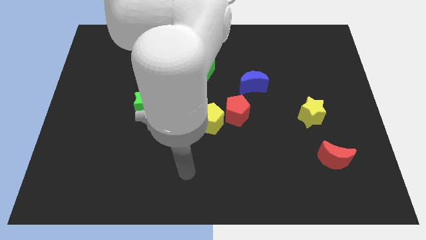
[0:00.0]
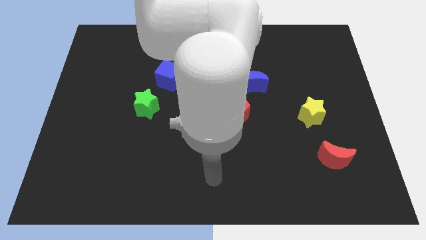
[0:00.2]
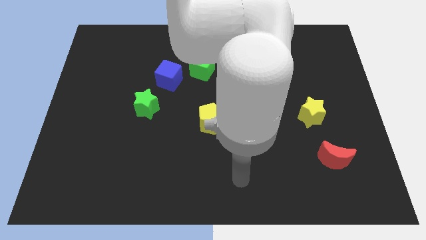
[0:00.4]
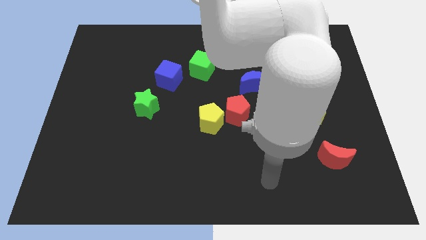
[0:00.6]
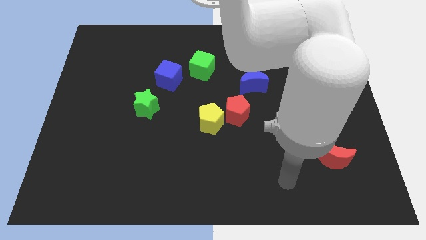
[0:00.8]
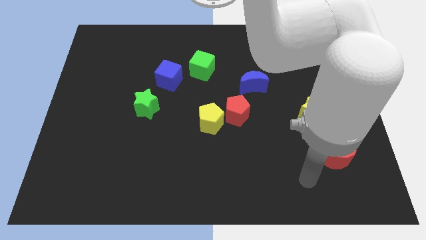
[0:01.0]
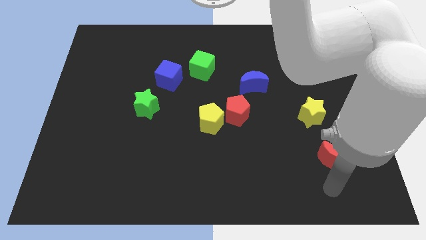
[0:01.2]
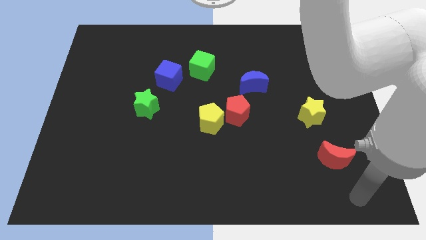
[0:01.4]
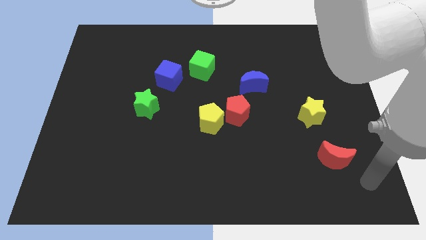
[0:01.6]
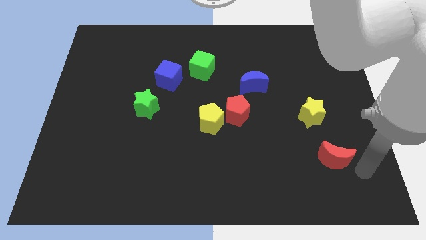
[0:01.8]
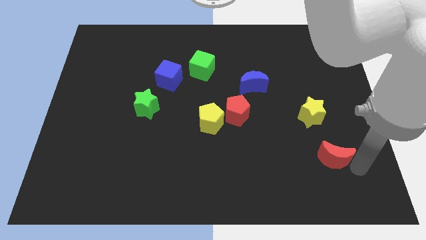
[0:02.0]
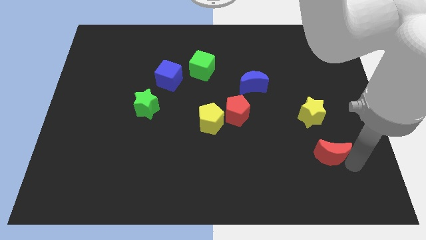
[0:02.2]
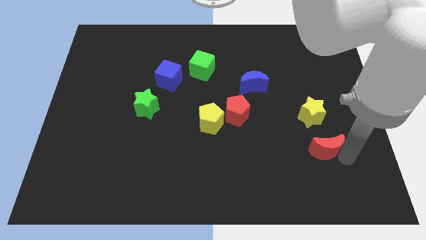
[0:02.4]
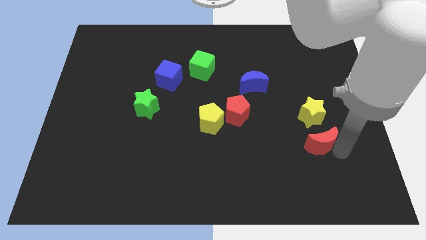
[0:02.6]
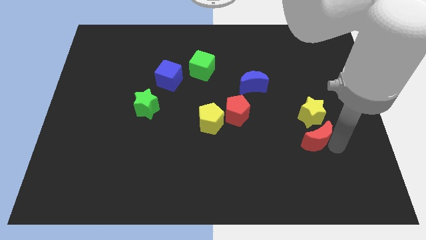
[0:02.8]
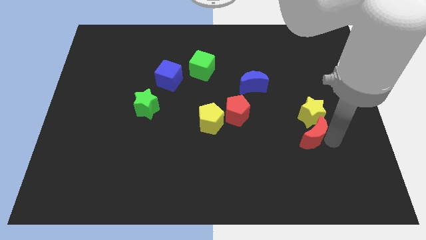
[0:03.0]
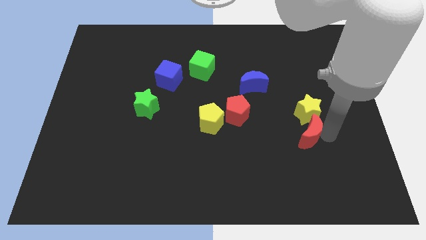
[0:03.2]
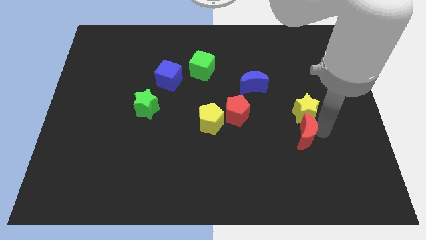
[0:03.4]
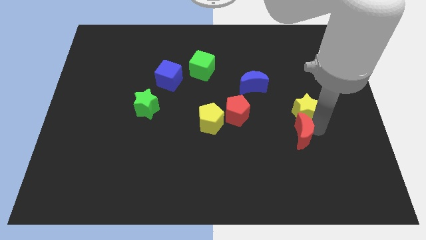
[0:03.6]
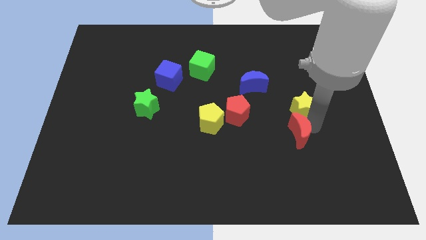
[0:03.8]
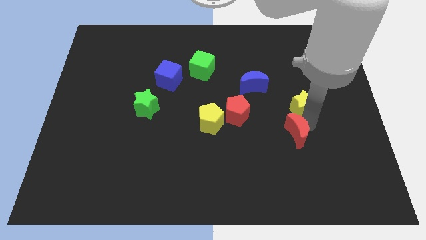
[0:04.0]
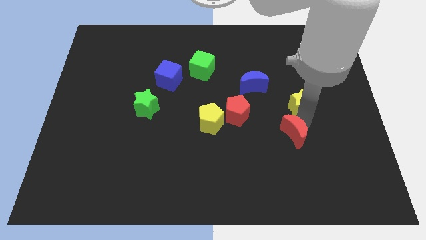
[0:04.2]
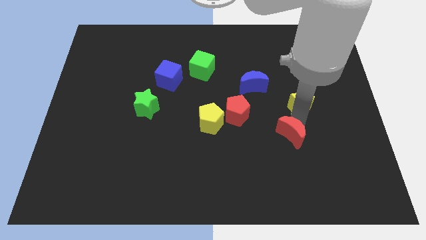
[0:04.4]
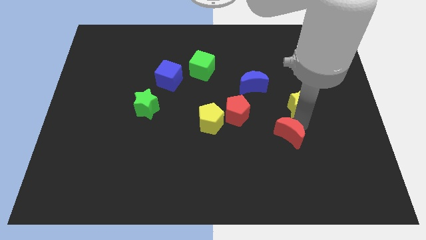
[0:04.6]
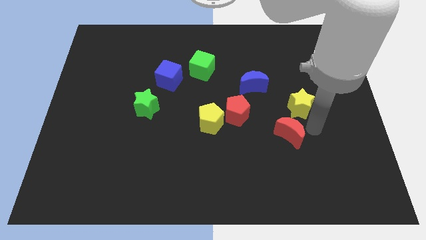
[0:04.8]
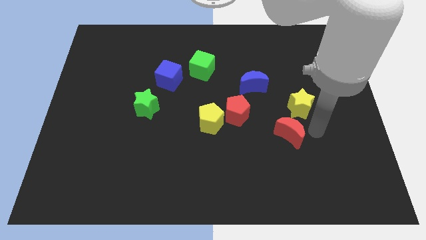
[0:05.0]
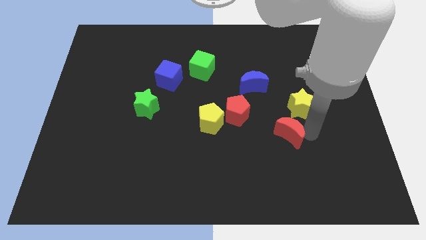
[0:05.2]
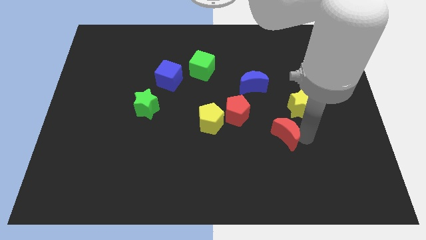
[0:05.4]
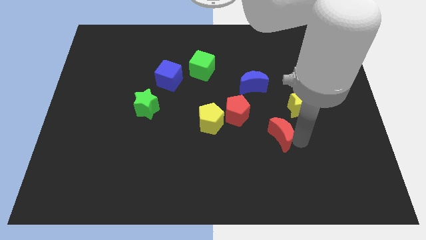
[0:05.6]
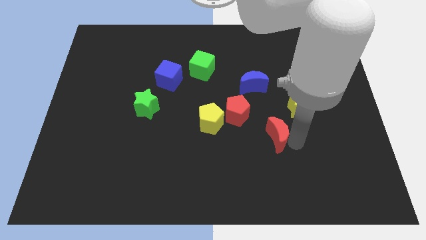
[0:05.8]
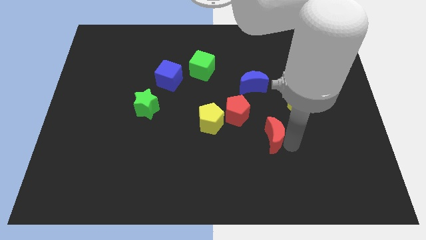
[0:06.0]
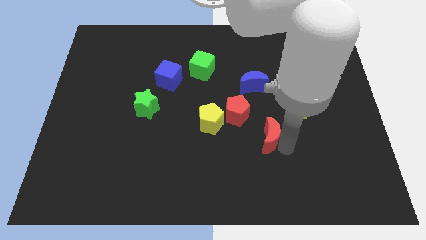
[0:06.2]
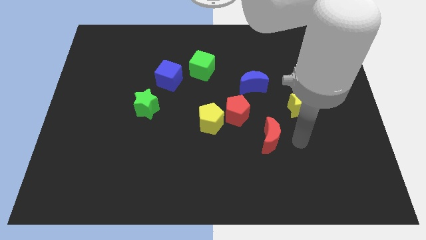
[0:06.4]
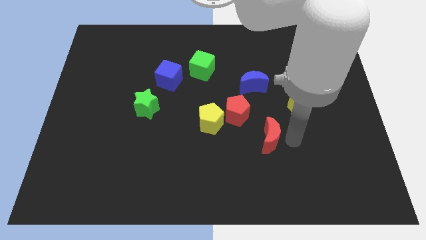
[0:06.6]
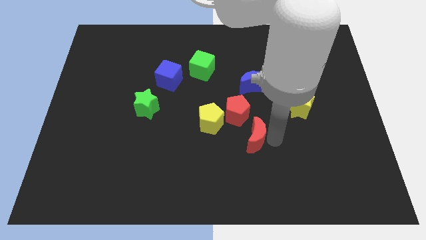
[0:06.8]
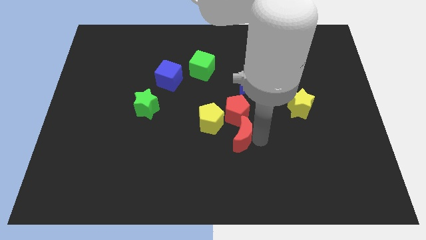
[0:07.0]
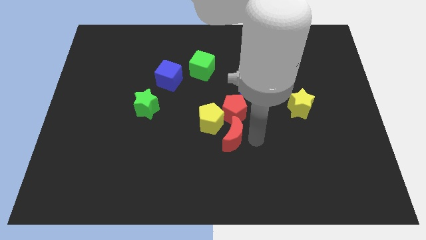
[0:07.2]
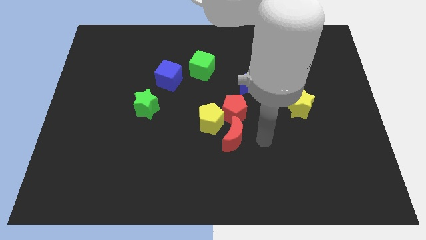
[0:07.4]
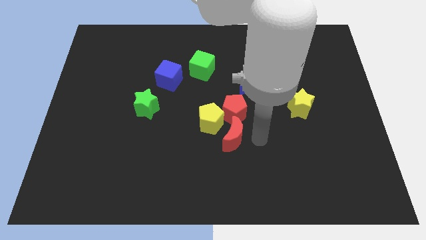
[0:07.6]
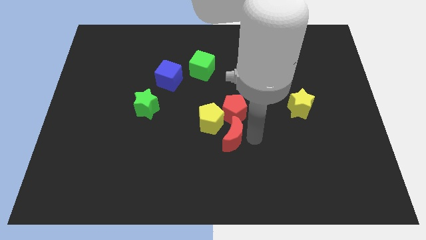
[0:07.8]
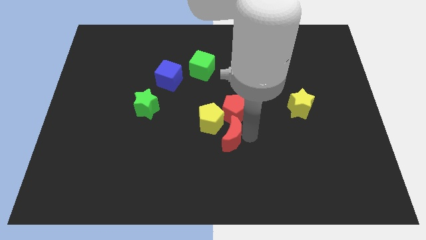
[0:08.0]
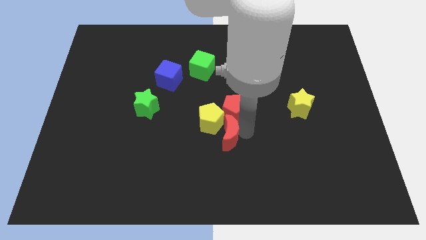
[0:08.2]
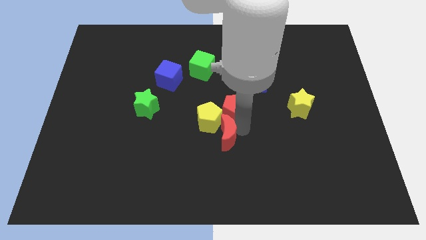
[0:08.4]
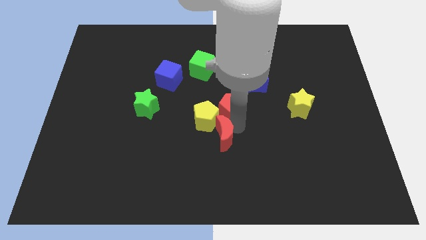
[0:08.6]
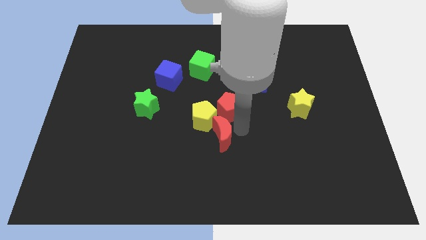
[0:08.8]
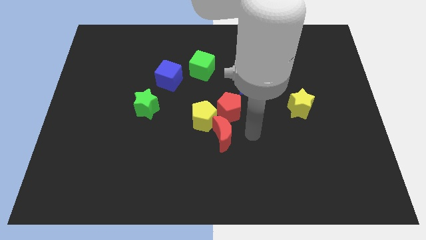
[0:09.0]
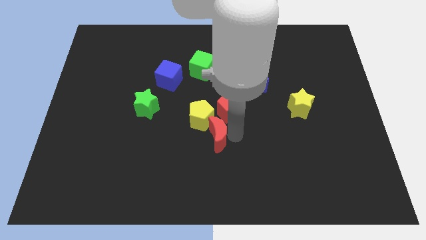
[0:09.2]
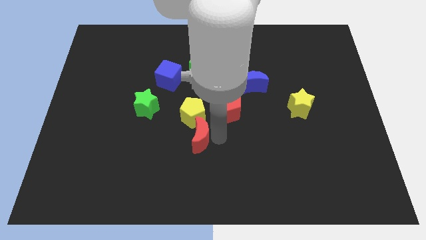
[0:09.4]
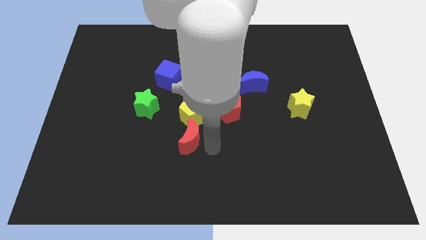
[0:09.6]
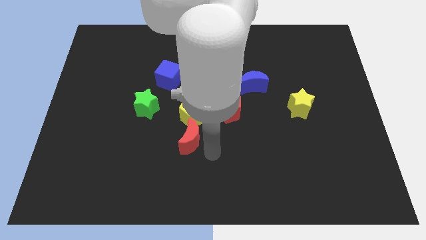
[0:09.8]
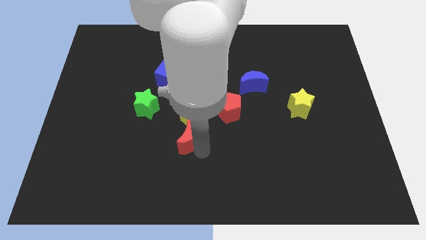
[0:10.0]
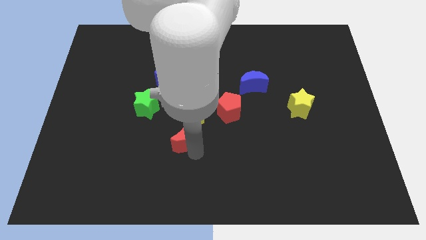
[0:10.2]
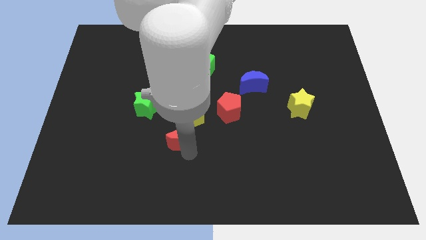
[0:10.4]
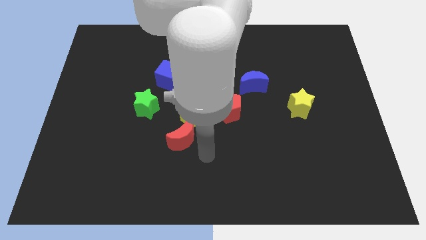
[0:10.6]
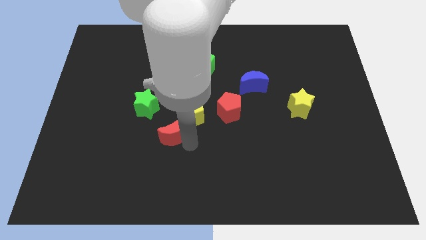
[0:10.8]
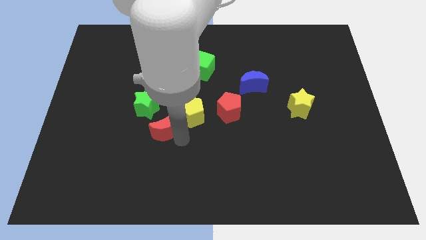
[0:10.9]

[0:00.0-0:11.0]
push the red moon left of the yellow pentagon

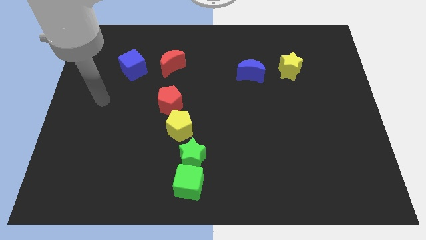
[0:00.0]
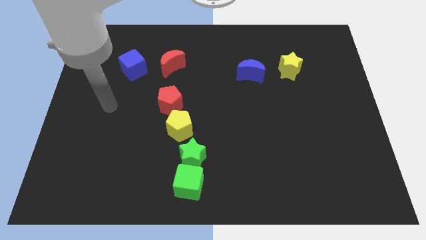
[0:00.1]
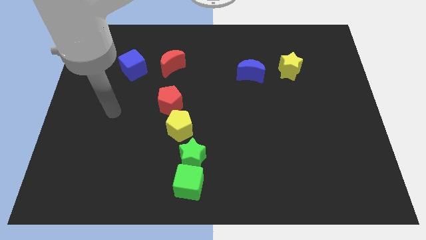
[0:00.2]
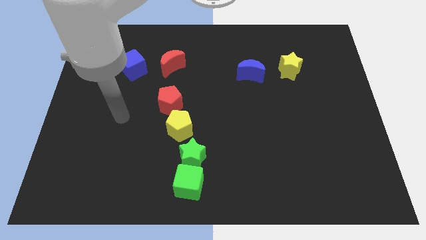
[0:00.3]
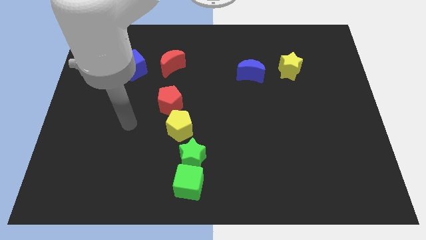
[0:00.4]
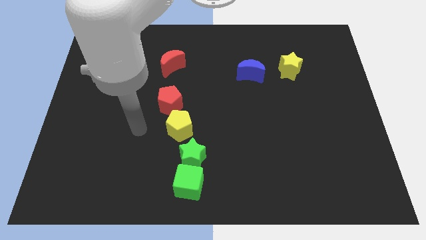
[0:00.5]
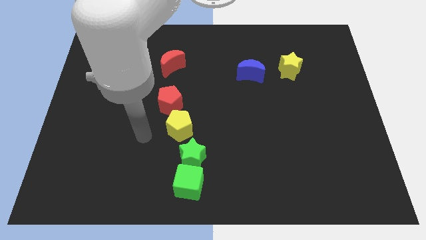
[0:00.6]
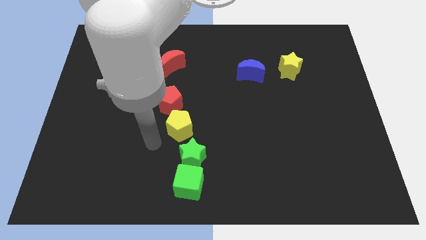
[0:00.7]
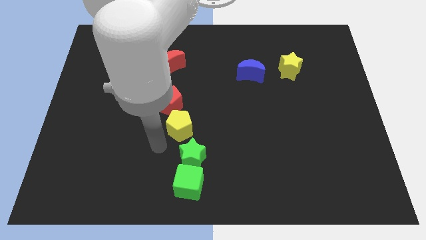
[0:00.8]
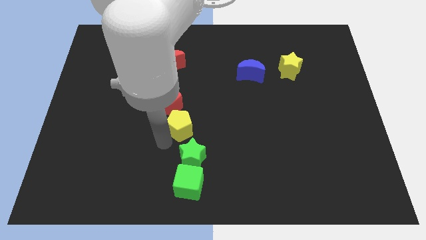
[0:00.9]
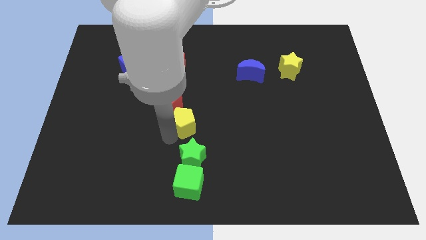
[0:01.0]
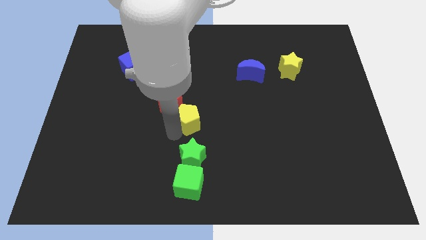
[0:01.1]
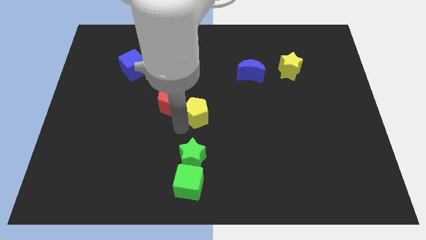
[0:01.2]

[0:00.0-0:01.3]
put the yellow pentagon to the right side of the red pentagon
